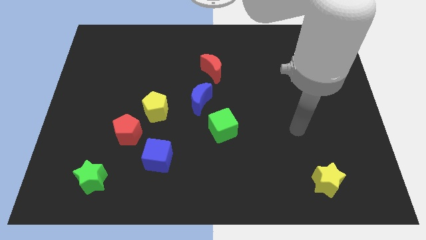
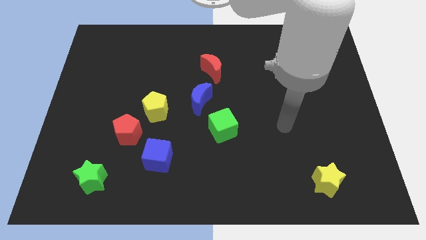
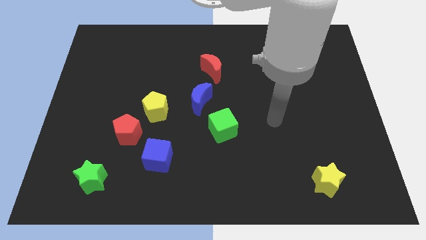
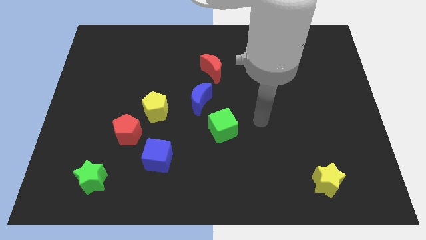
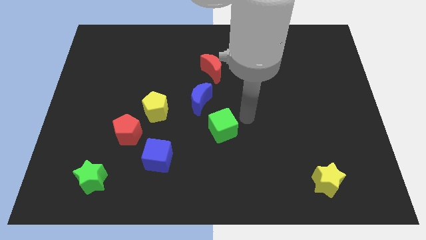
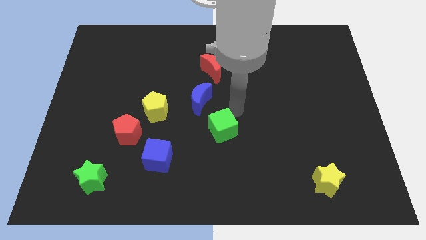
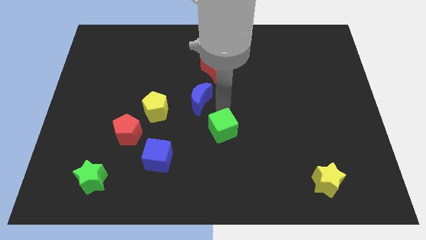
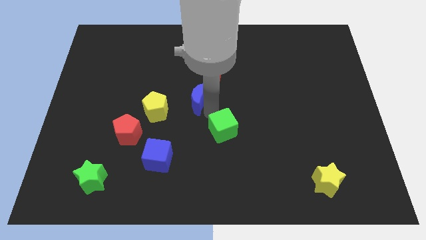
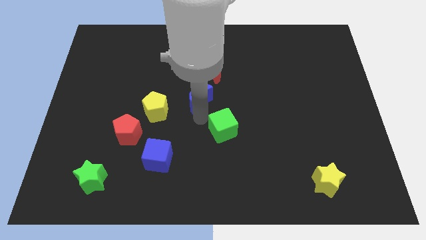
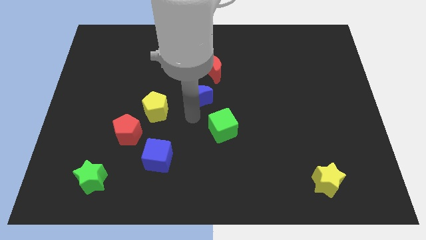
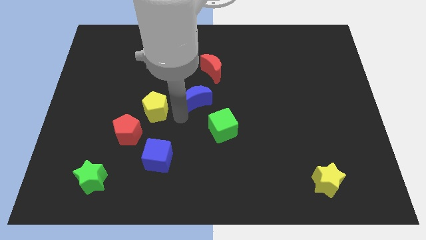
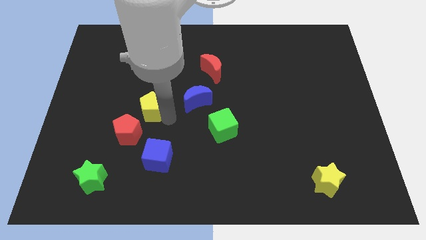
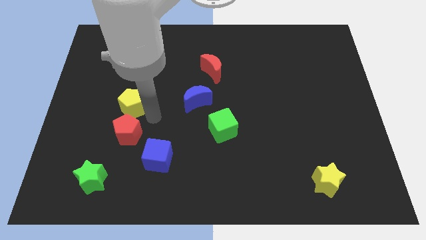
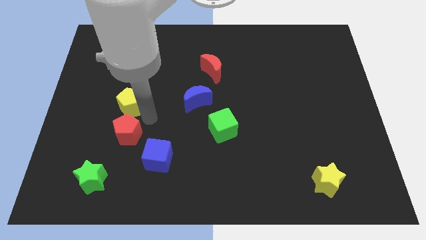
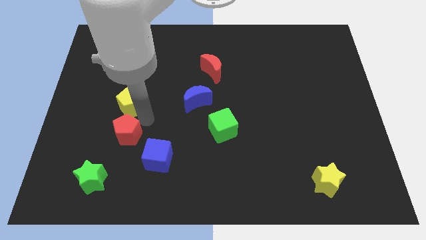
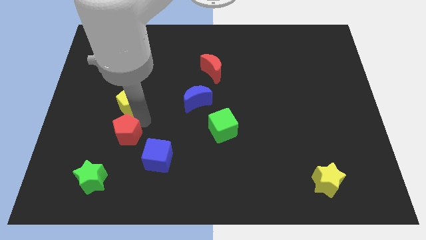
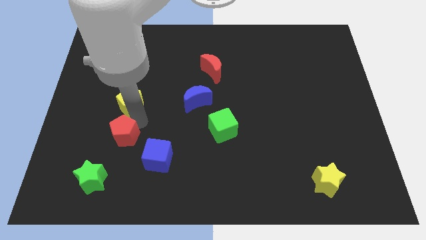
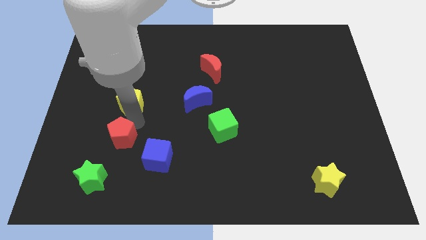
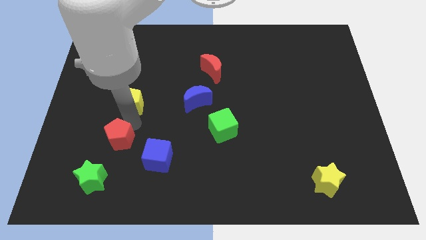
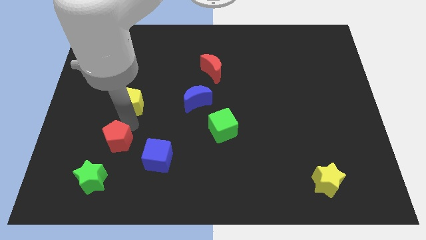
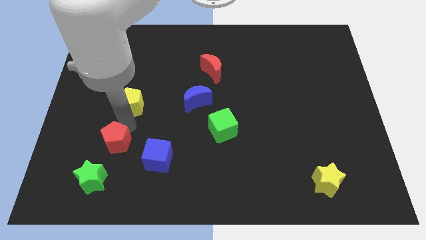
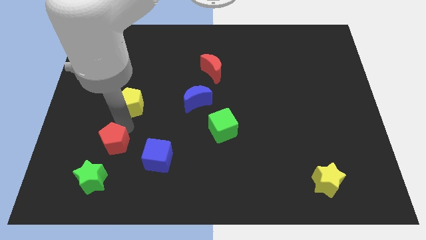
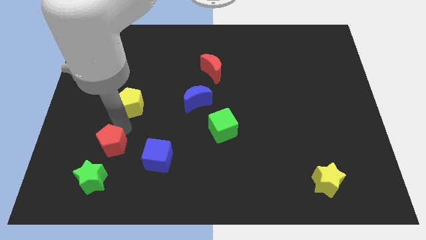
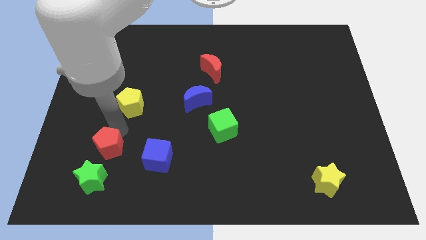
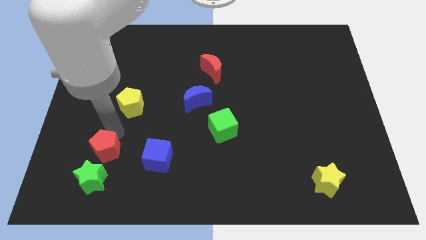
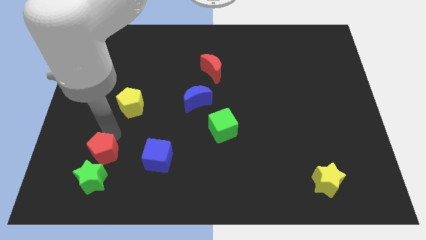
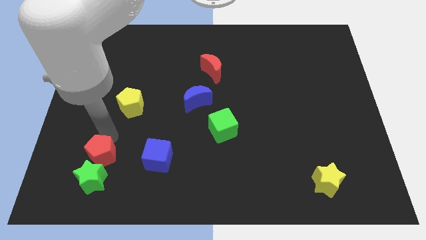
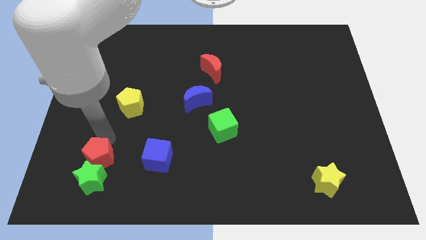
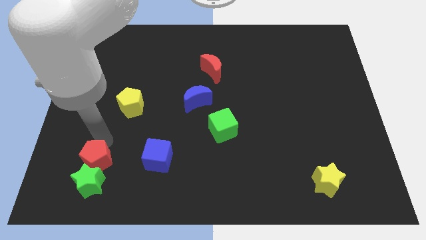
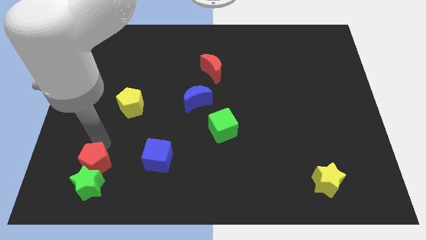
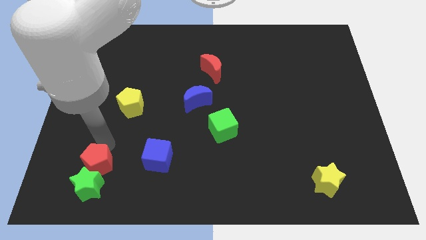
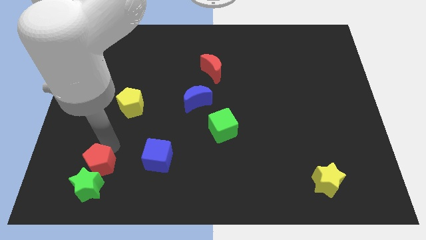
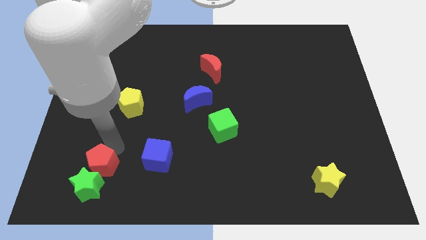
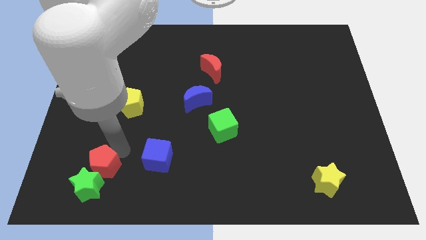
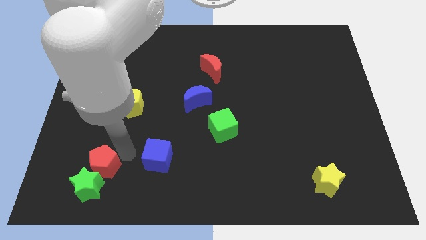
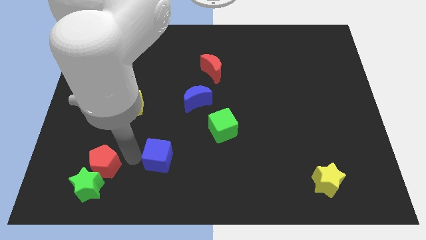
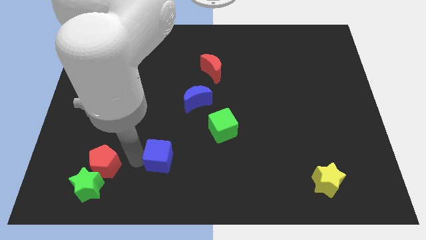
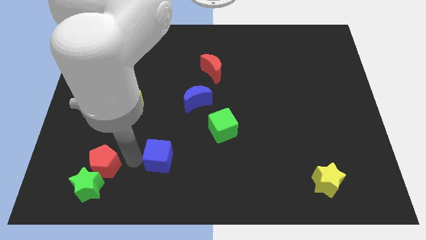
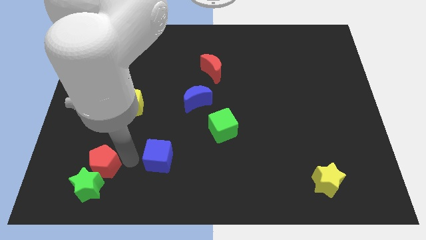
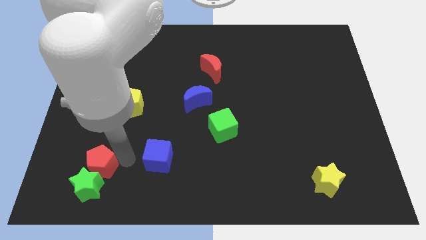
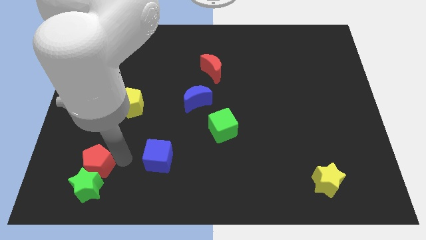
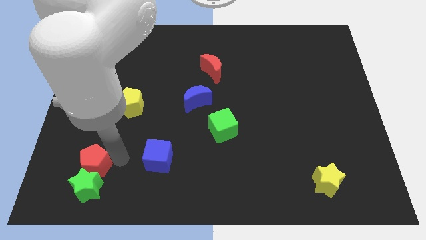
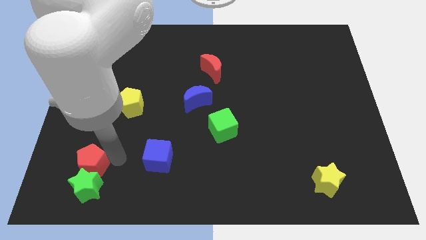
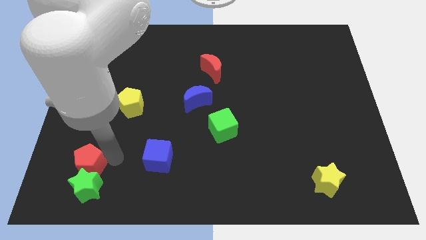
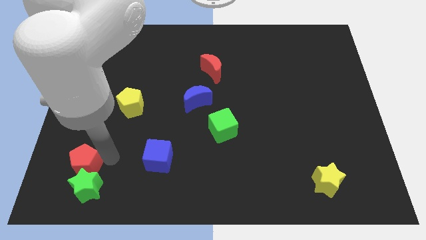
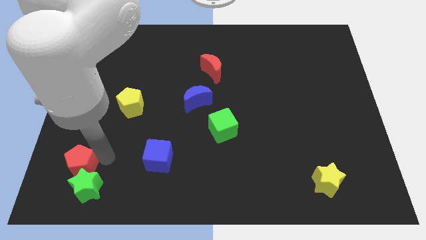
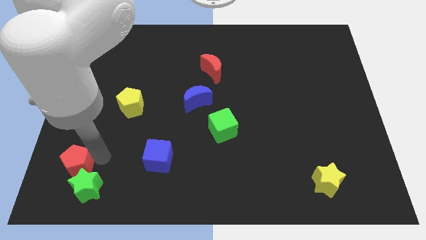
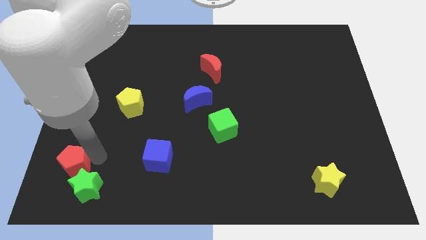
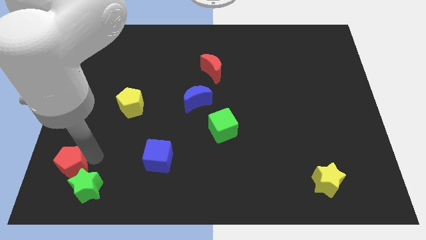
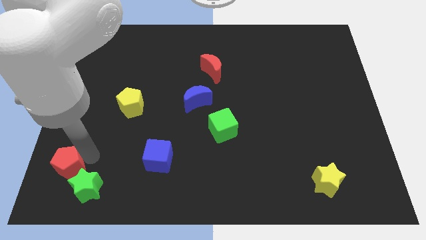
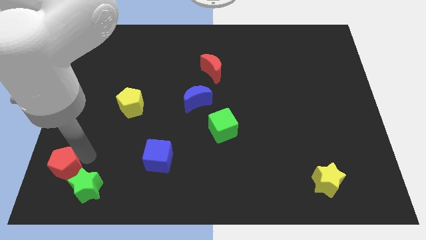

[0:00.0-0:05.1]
slide the red pentagon to the lower left corner

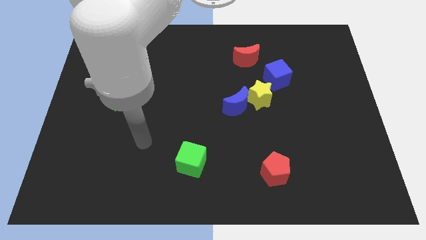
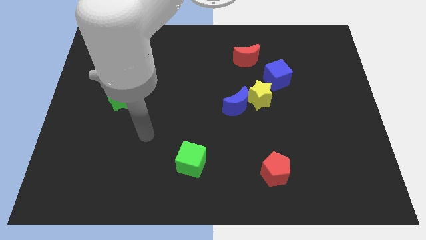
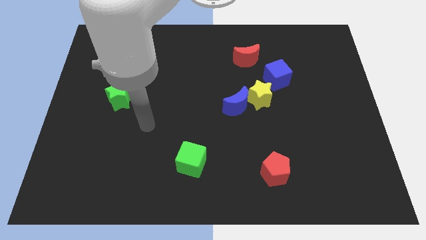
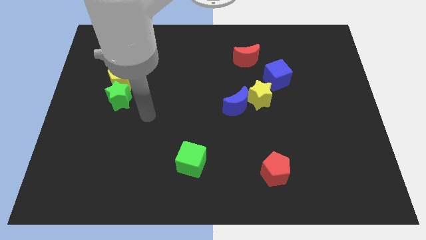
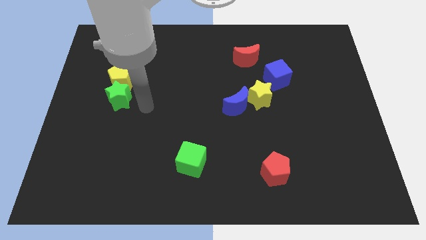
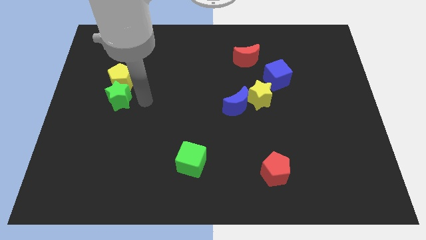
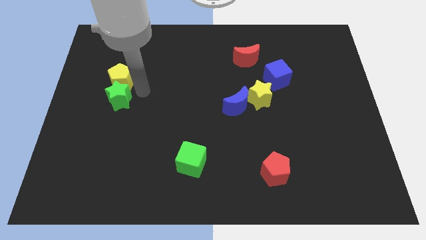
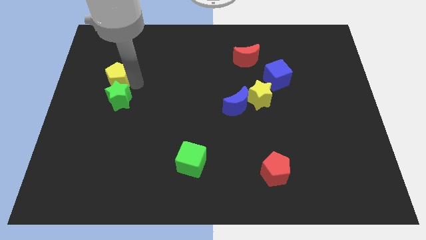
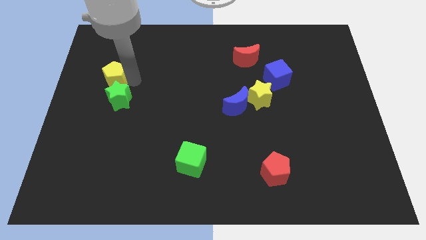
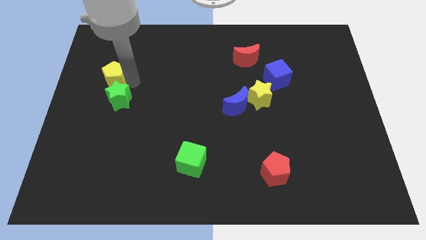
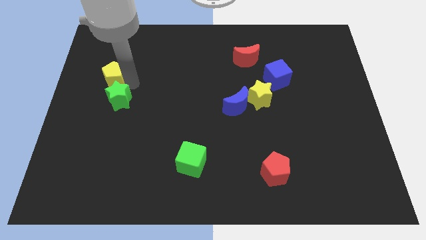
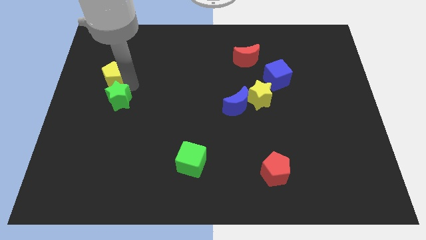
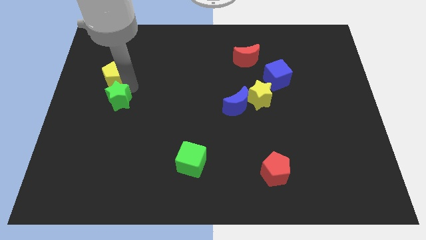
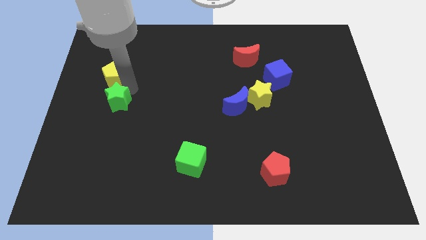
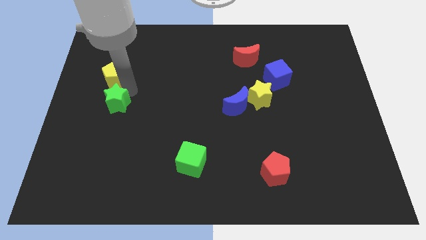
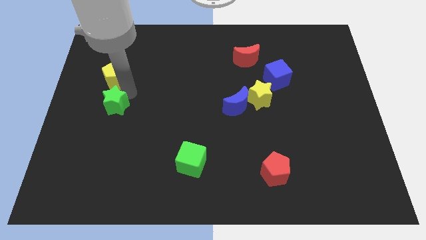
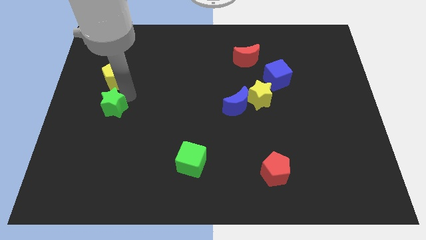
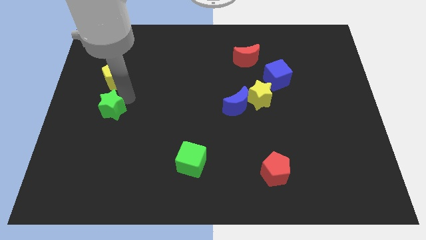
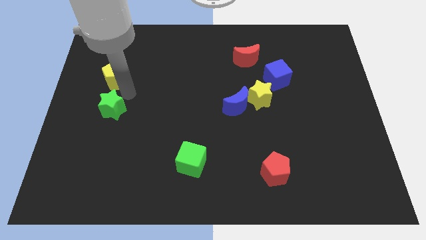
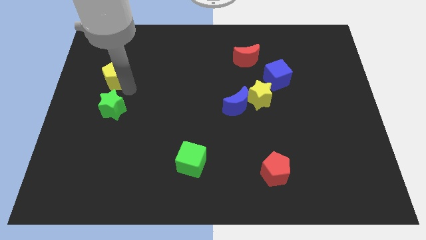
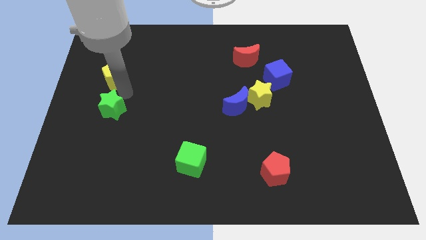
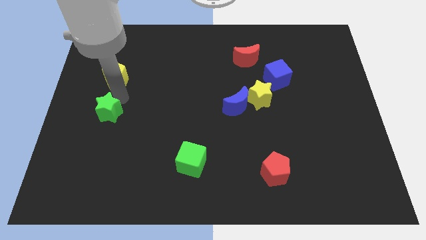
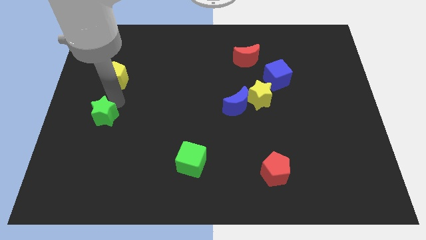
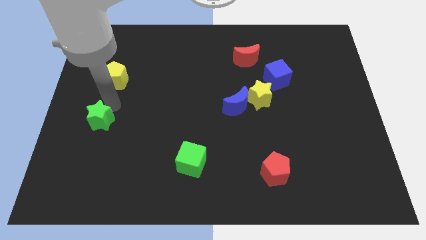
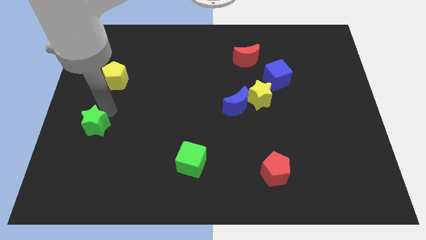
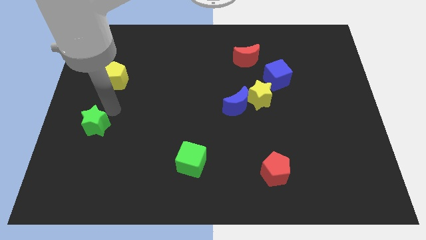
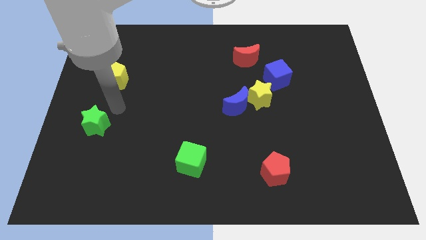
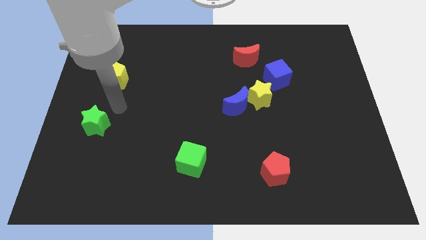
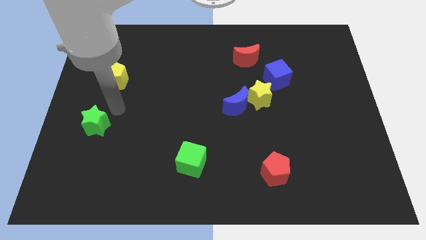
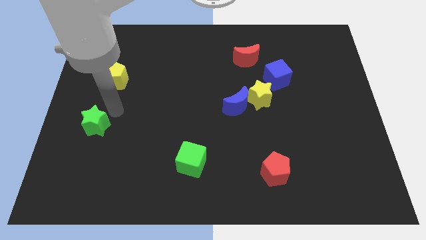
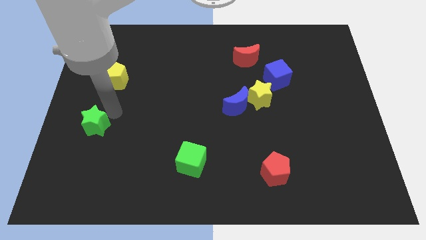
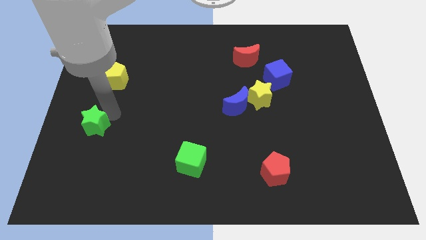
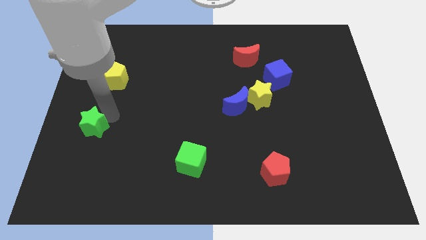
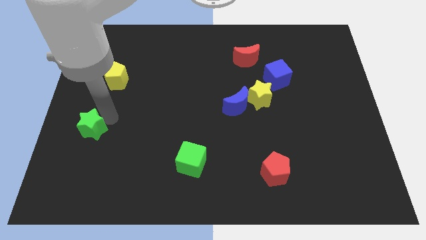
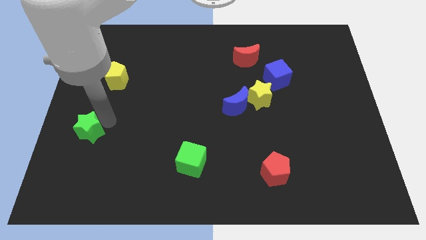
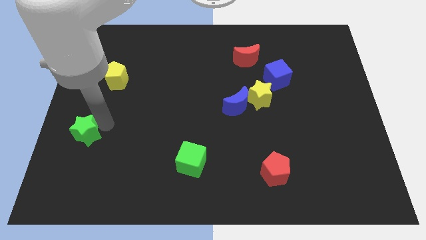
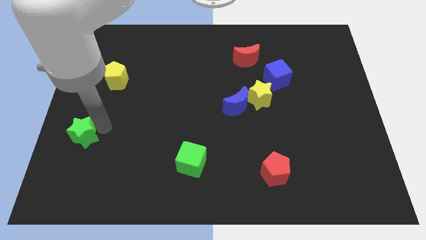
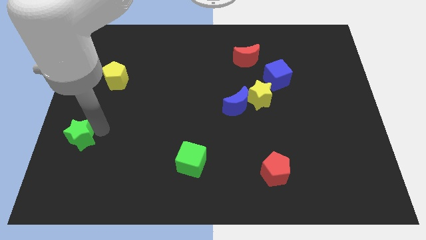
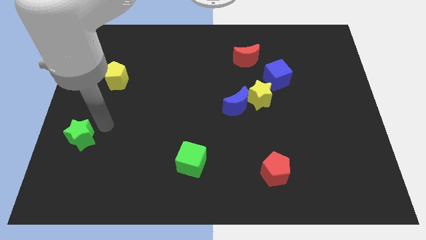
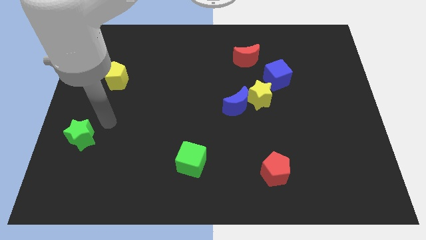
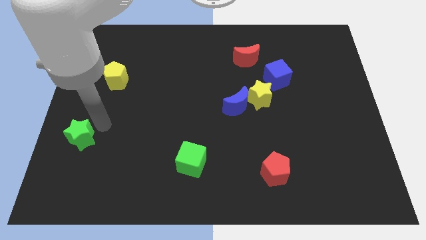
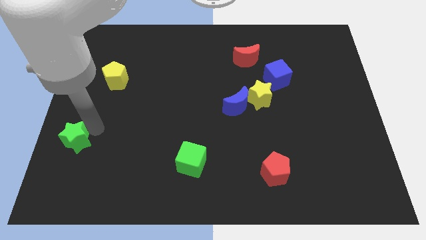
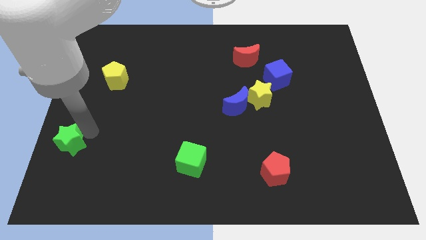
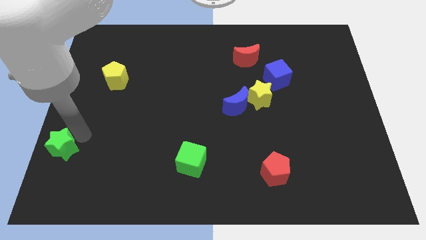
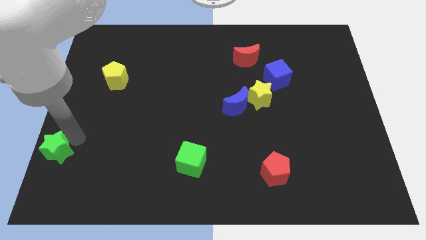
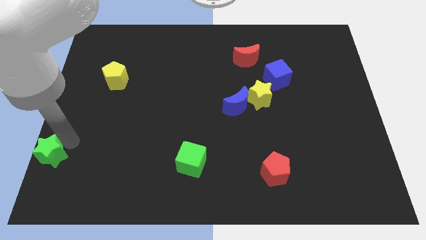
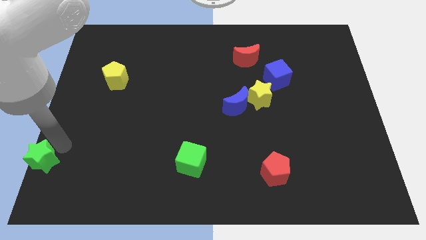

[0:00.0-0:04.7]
put the green star to the bottom left of the board
